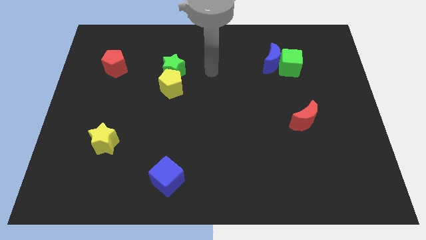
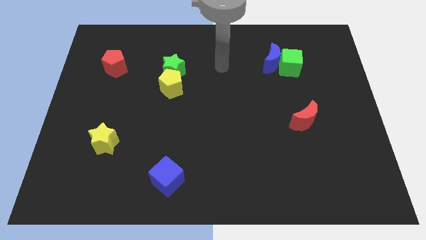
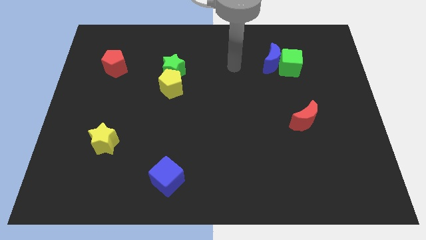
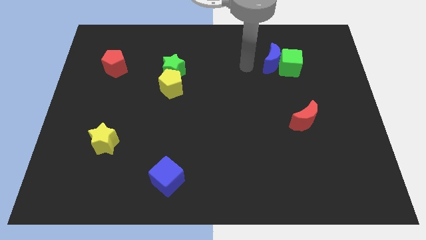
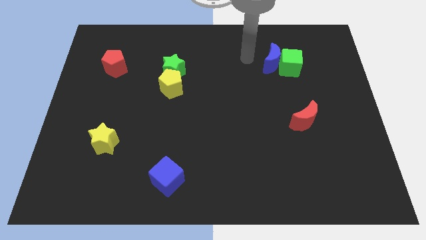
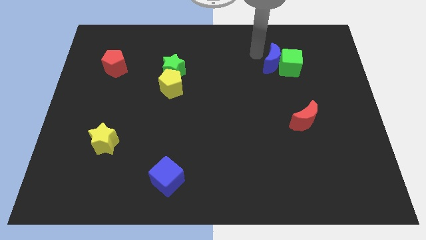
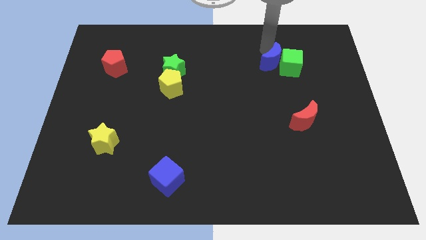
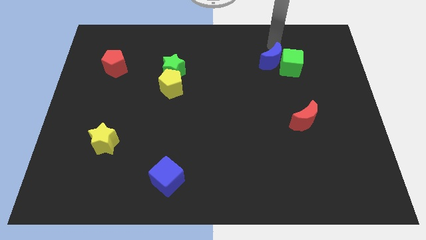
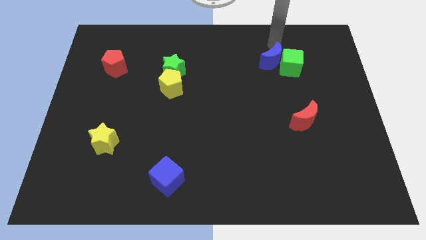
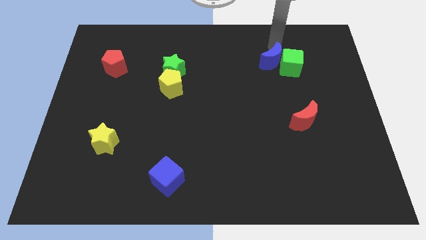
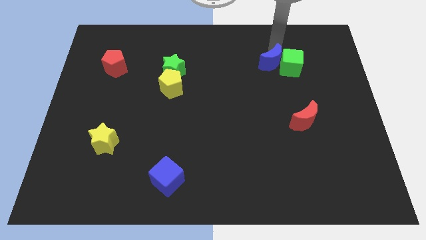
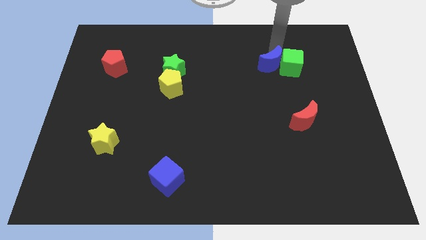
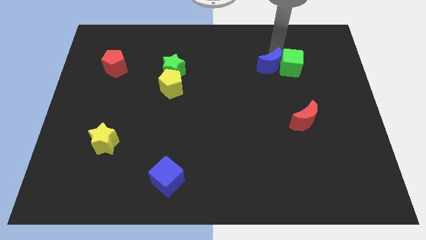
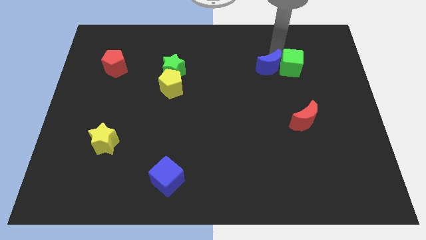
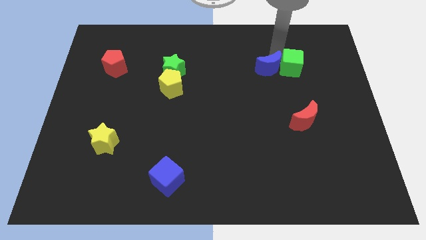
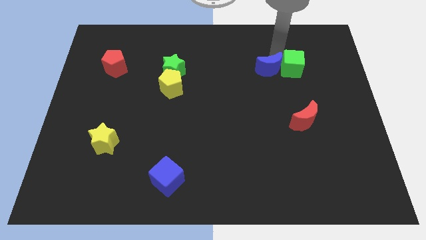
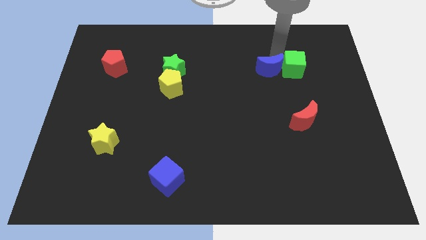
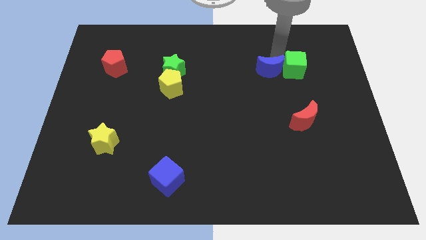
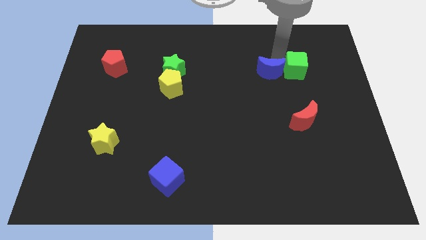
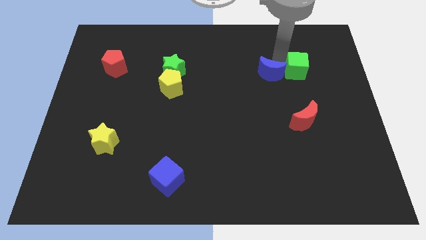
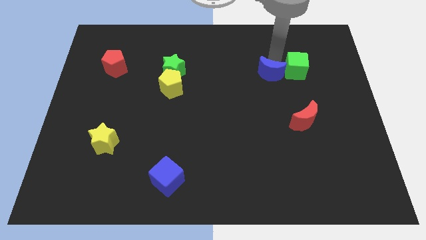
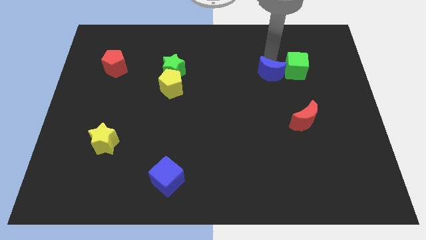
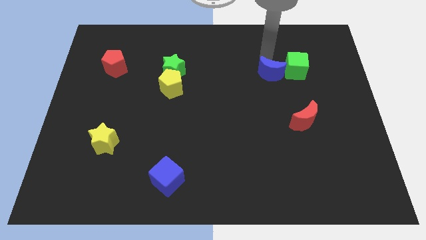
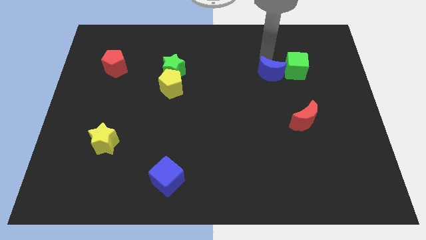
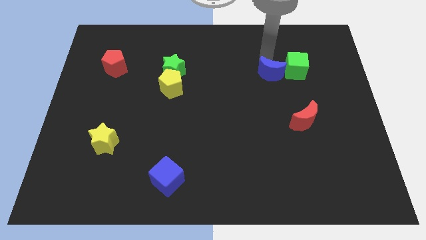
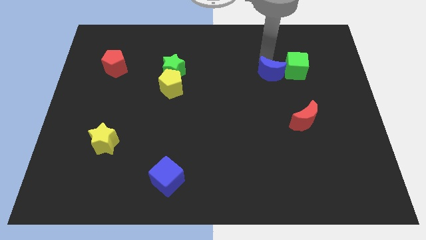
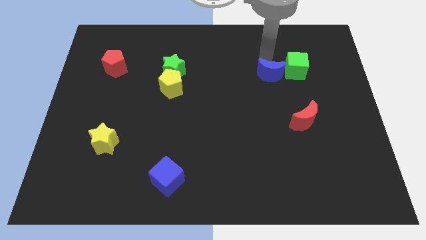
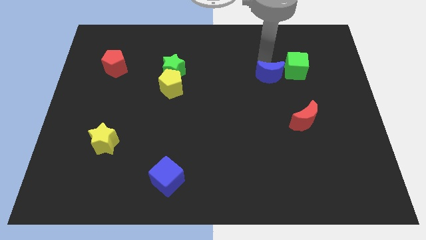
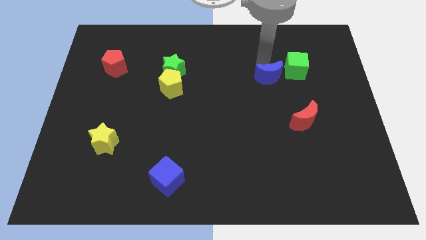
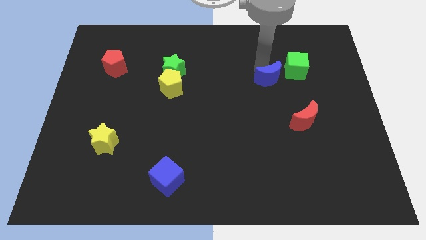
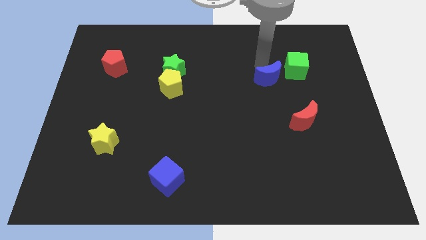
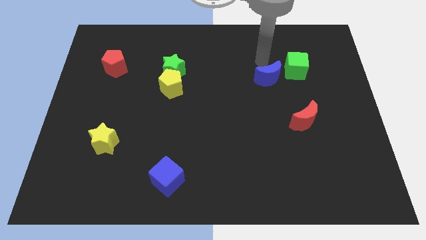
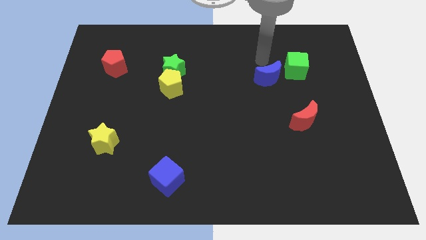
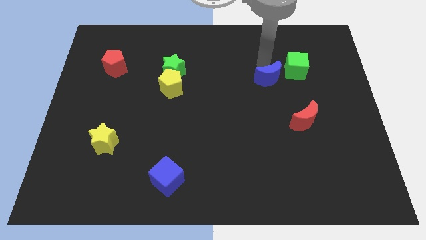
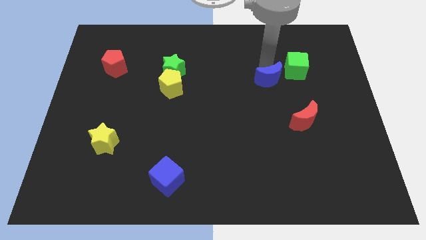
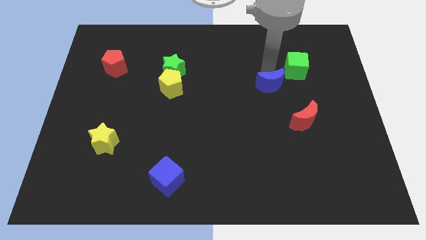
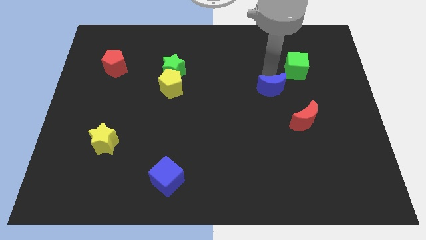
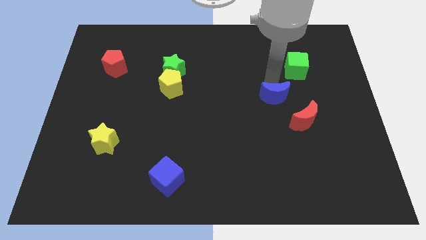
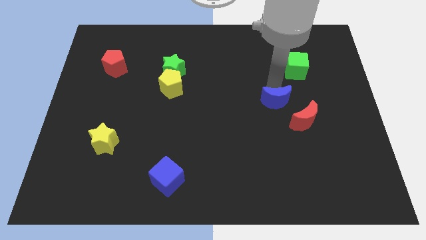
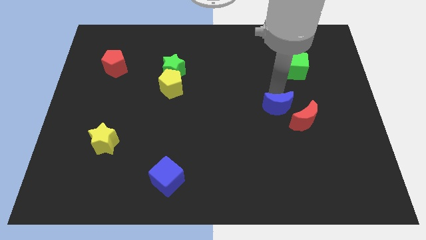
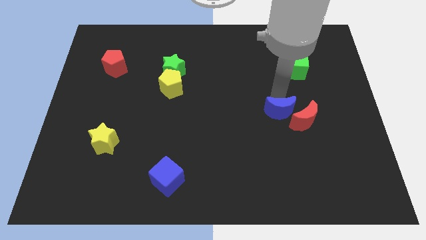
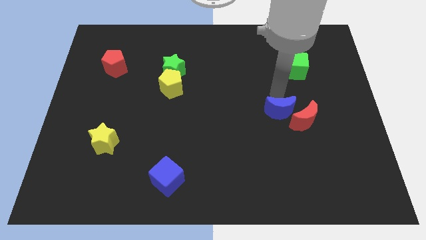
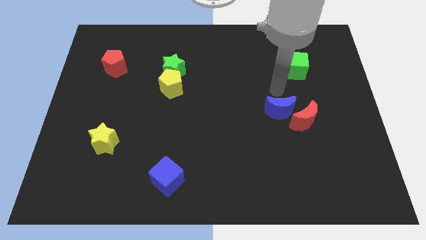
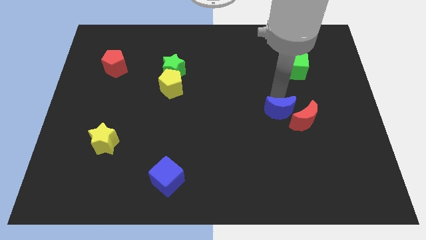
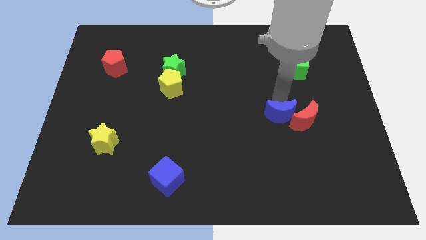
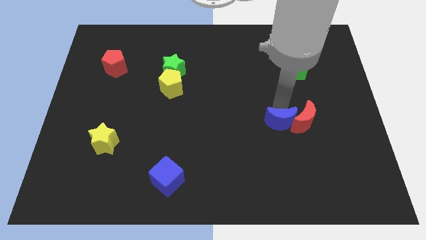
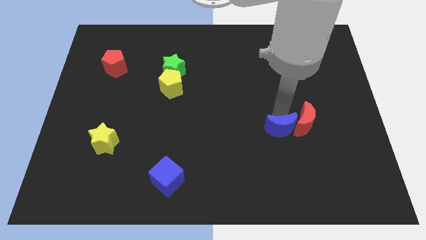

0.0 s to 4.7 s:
slide the blue moon downwards

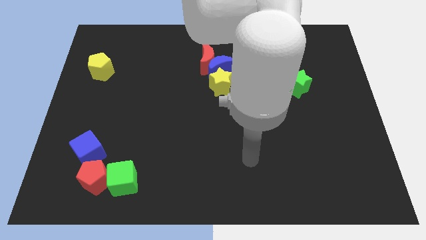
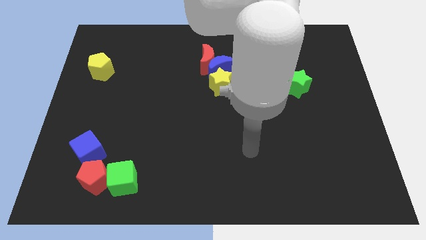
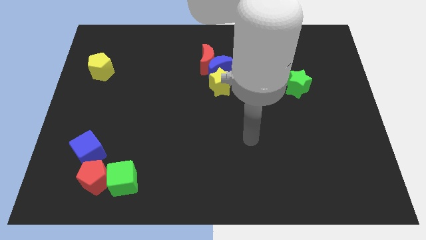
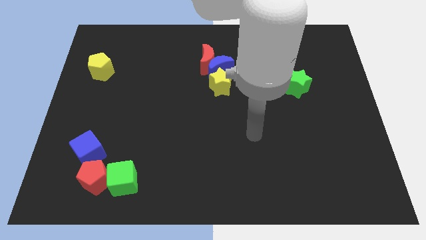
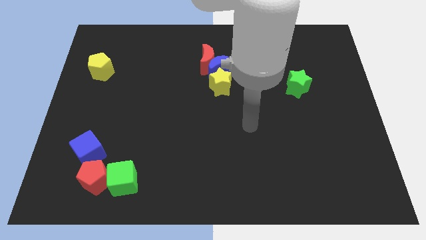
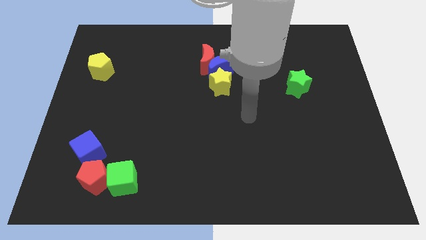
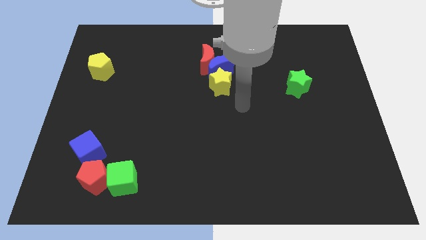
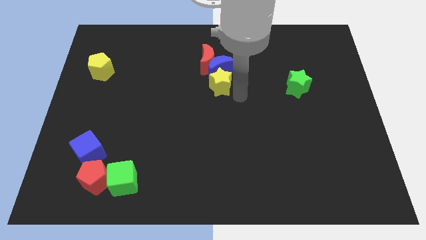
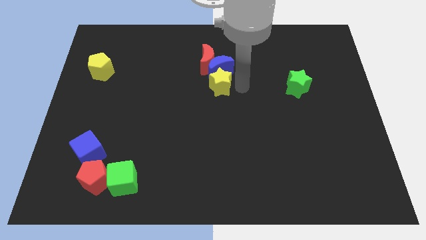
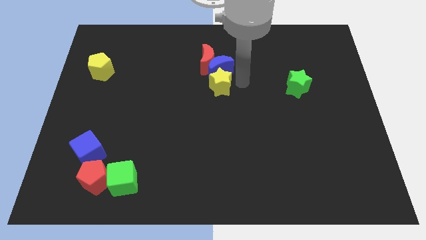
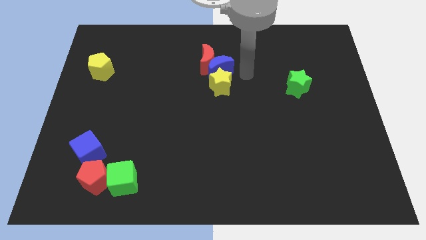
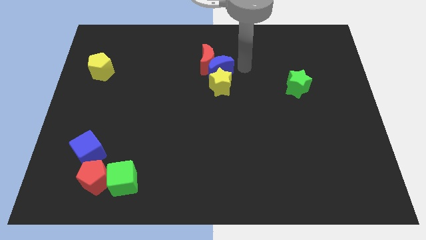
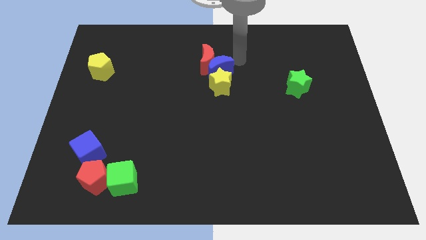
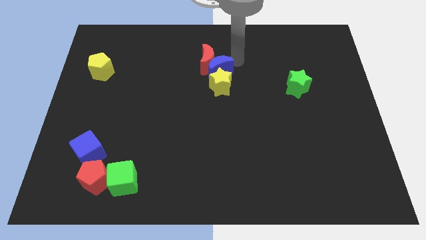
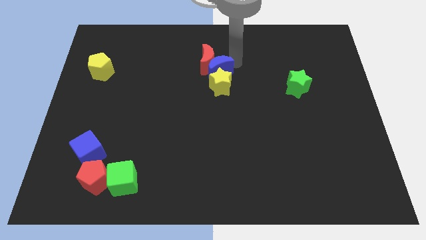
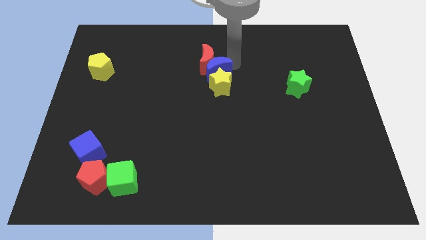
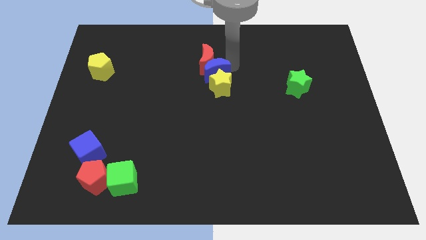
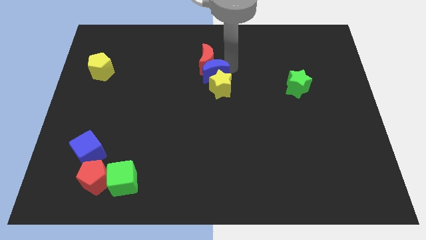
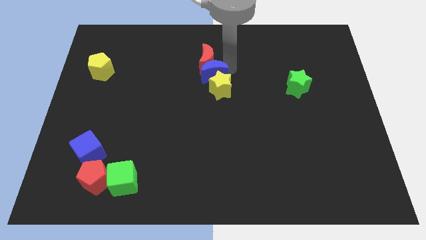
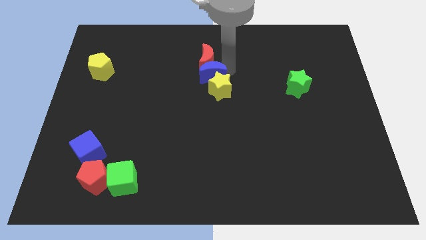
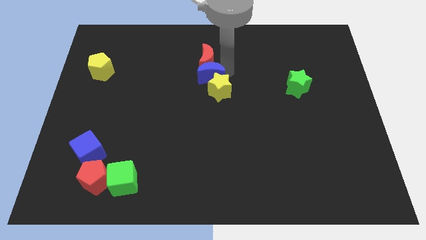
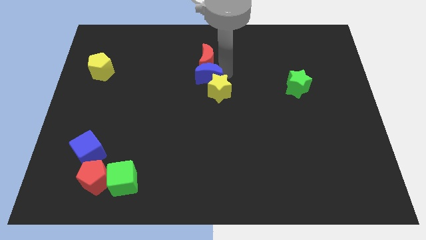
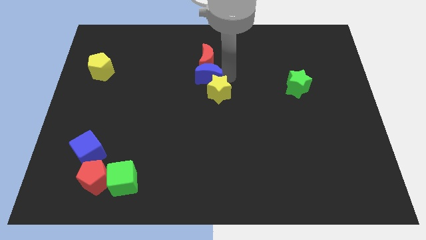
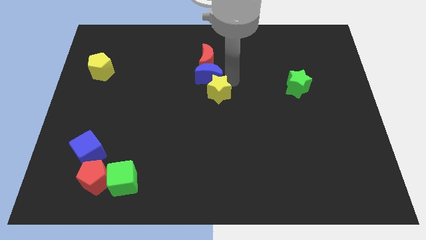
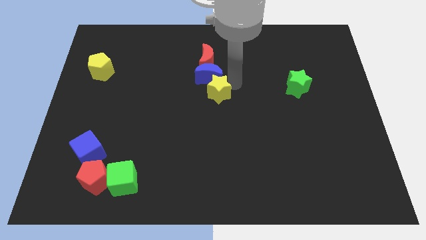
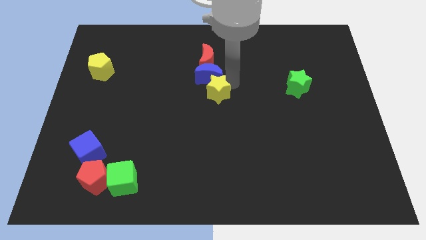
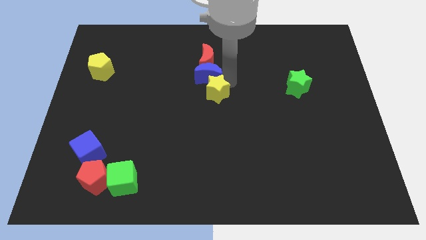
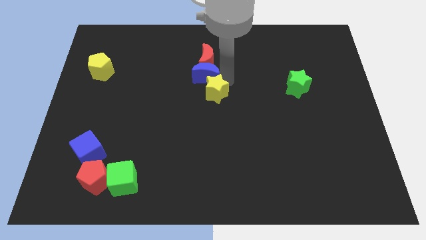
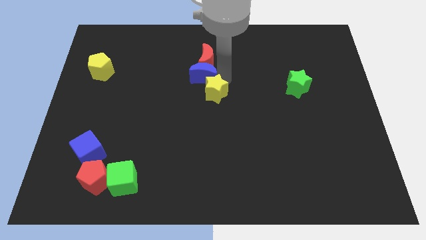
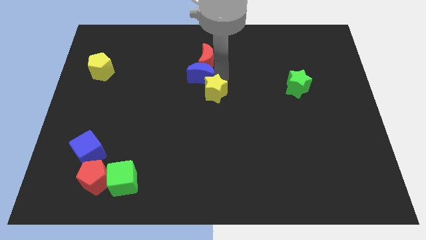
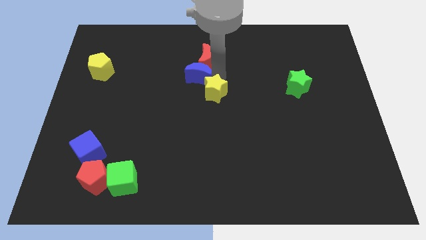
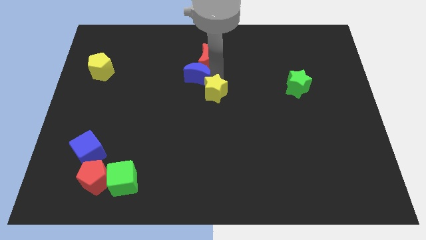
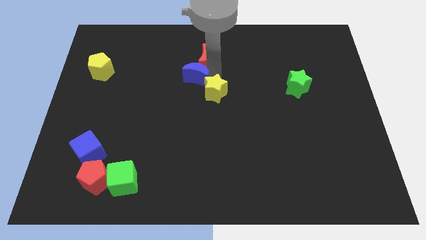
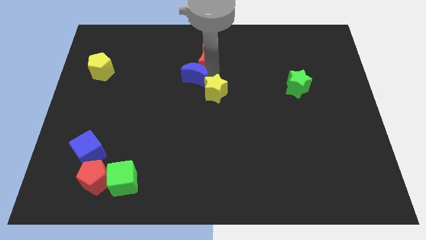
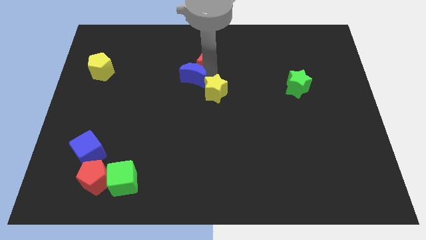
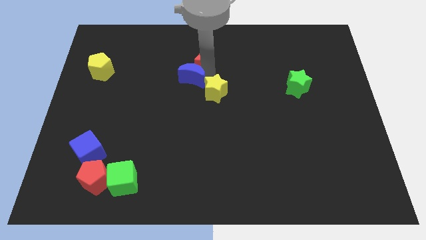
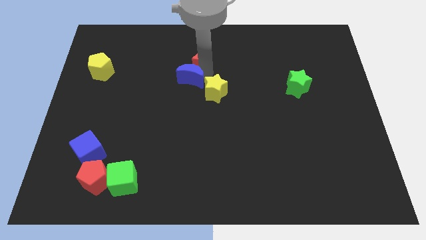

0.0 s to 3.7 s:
push the blue moon a little left
